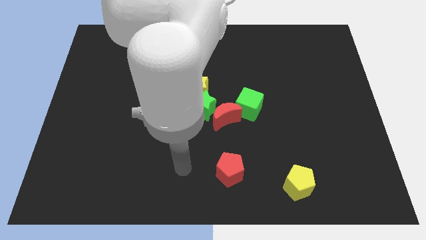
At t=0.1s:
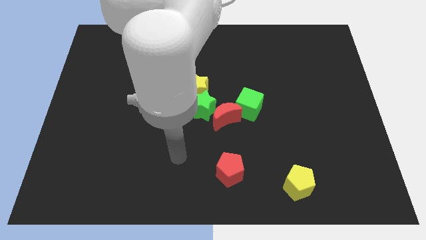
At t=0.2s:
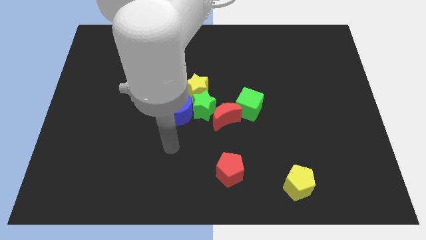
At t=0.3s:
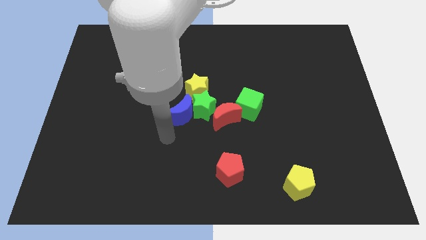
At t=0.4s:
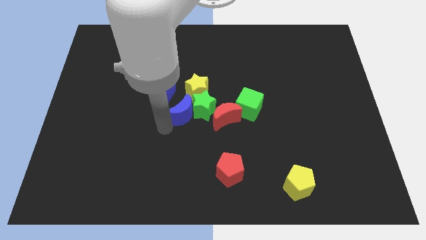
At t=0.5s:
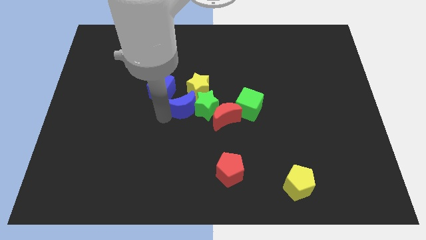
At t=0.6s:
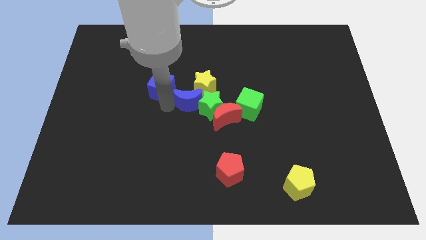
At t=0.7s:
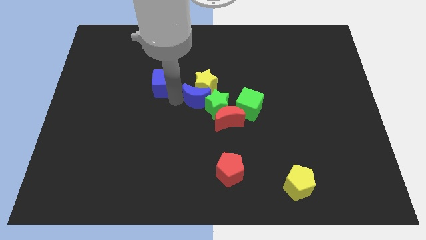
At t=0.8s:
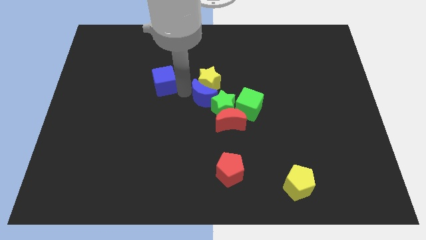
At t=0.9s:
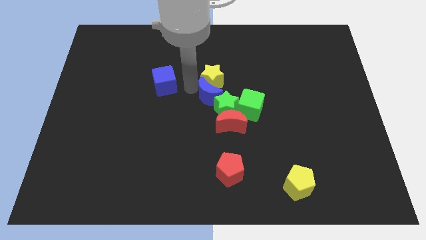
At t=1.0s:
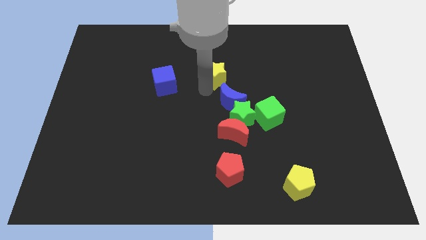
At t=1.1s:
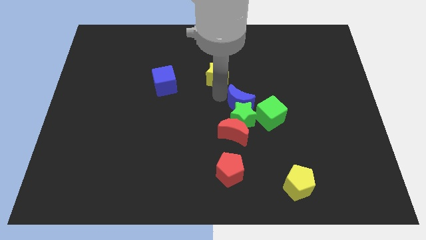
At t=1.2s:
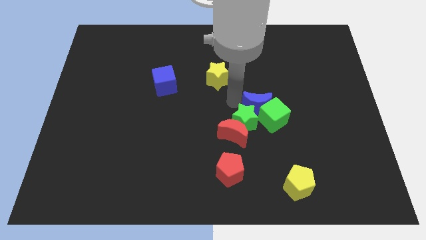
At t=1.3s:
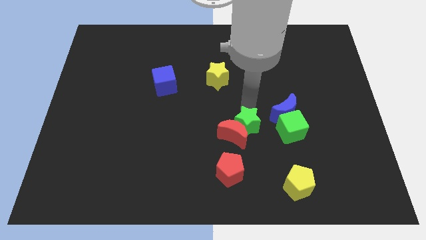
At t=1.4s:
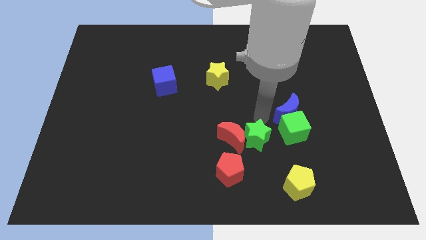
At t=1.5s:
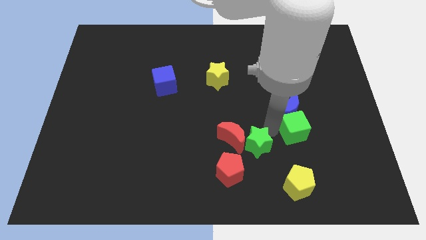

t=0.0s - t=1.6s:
separate the green star from the blue moon, yellow star, and red moon

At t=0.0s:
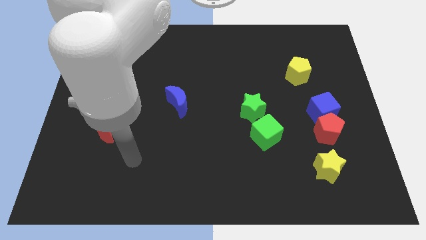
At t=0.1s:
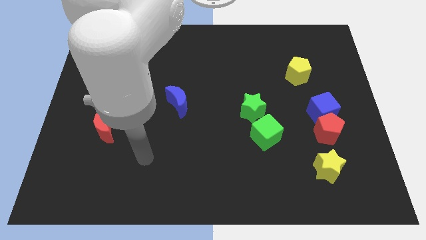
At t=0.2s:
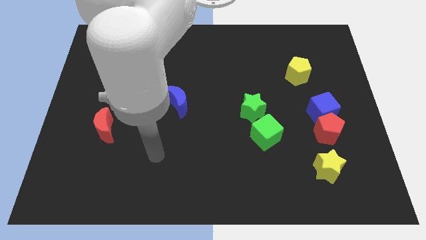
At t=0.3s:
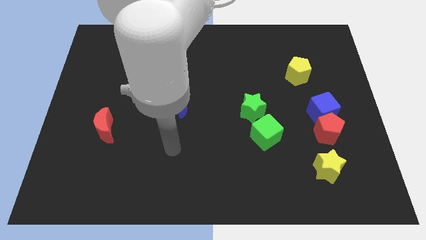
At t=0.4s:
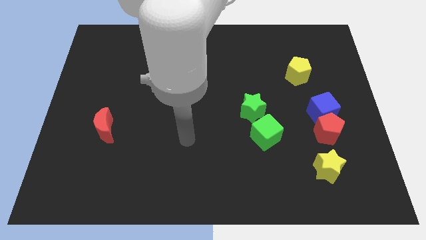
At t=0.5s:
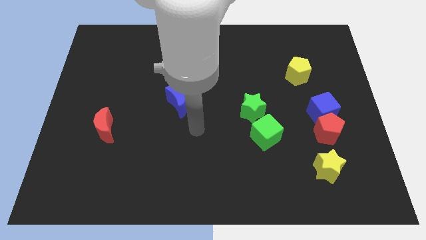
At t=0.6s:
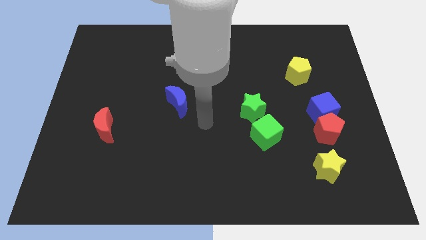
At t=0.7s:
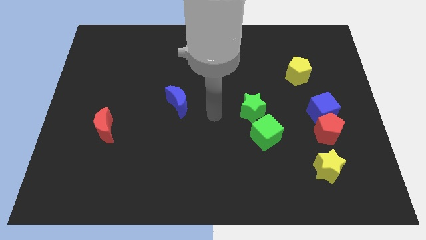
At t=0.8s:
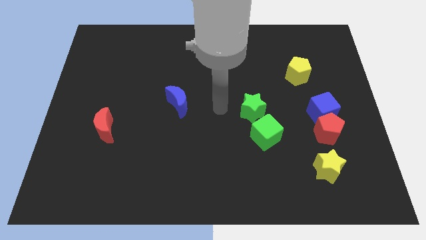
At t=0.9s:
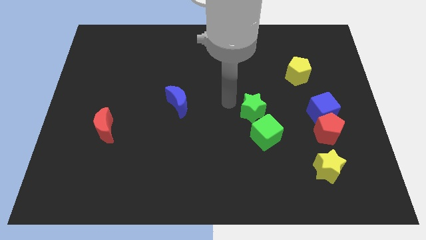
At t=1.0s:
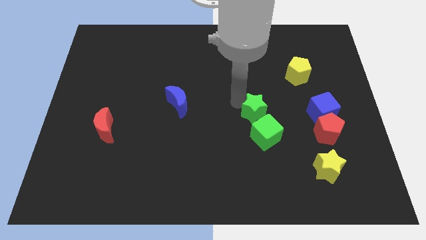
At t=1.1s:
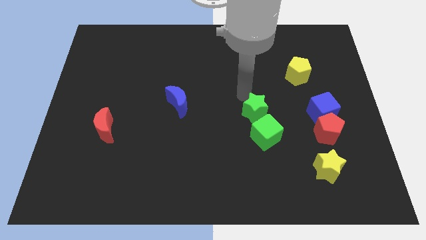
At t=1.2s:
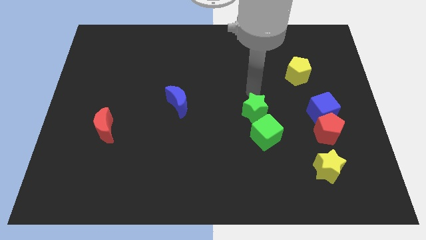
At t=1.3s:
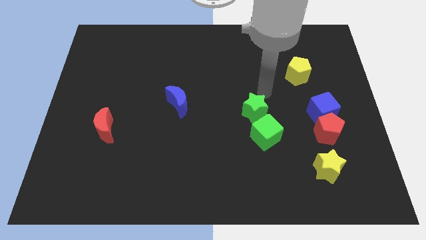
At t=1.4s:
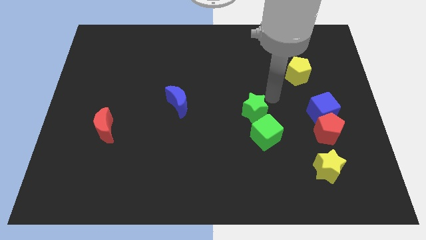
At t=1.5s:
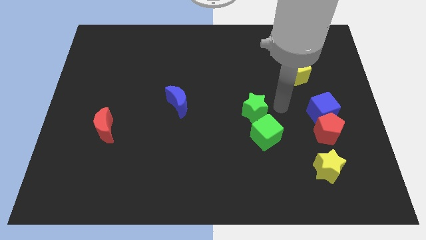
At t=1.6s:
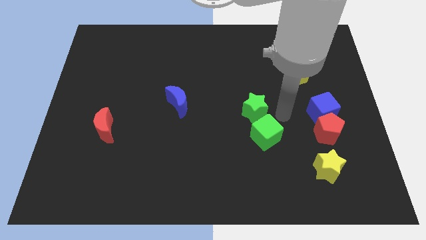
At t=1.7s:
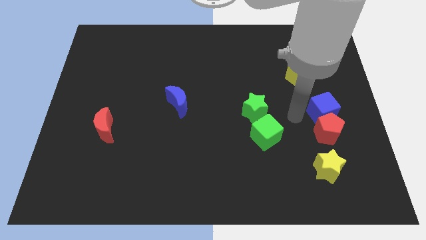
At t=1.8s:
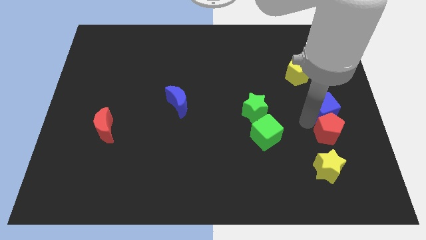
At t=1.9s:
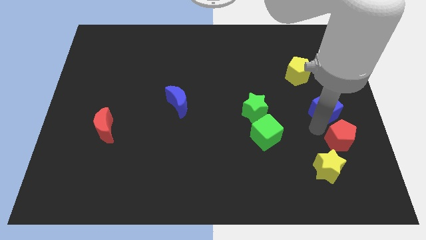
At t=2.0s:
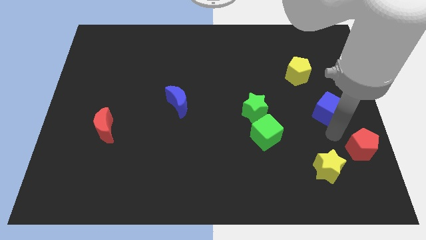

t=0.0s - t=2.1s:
separate the blue cube from the red pentagon

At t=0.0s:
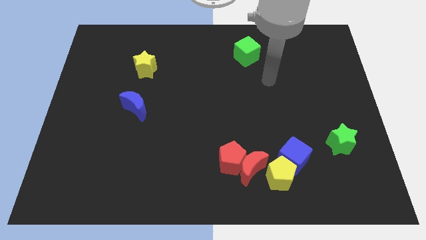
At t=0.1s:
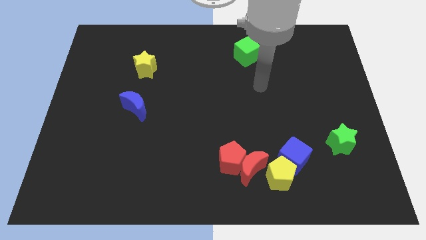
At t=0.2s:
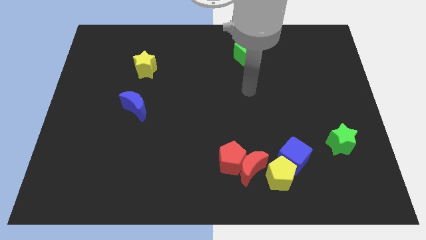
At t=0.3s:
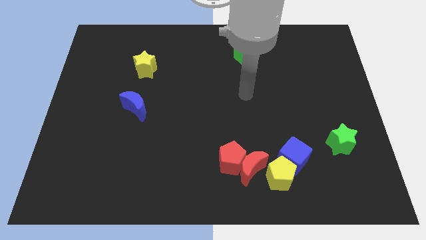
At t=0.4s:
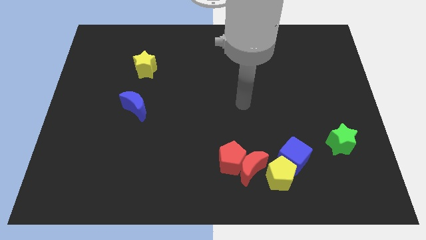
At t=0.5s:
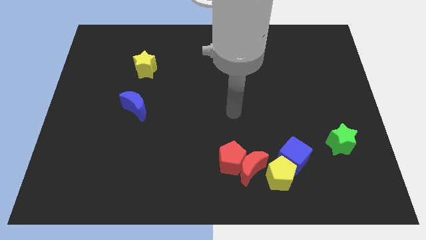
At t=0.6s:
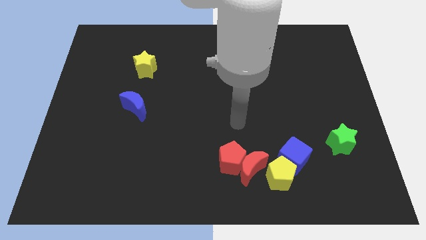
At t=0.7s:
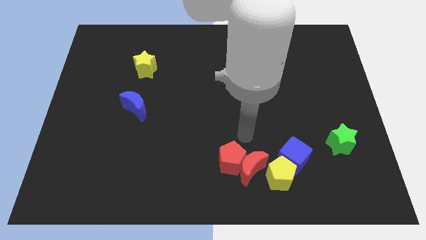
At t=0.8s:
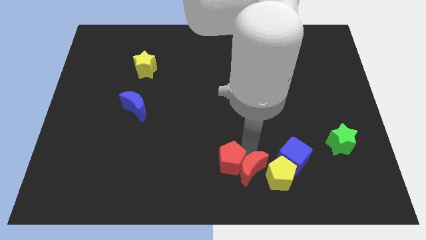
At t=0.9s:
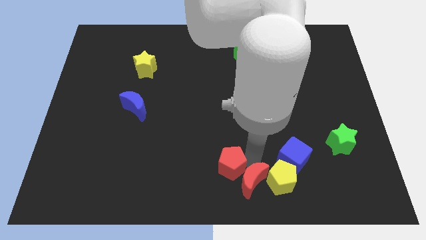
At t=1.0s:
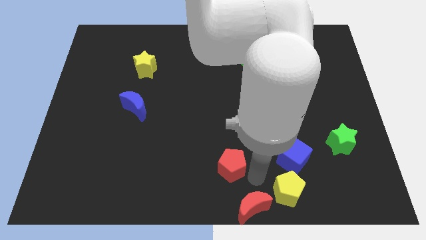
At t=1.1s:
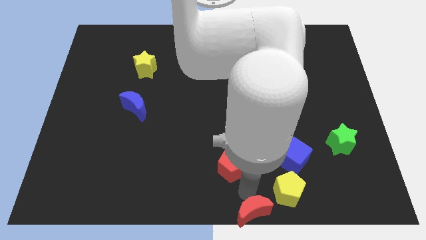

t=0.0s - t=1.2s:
move the red pentagon away from the red moon

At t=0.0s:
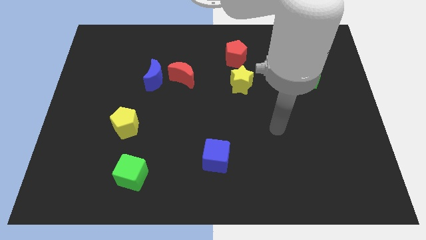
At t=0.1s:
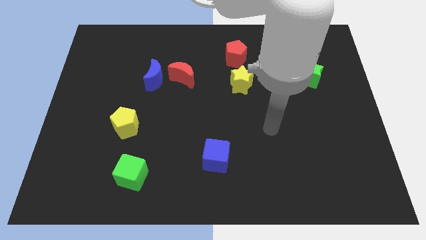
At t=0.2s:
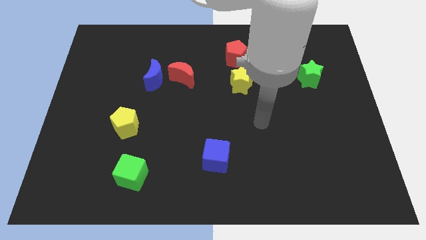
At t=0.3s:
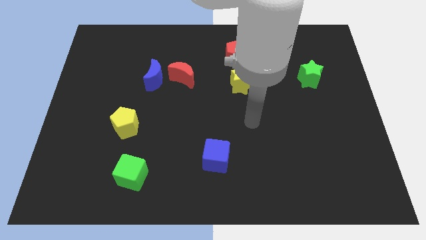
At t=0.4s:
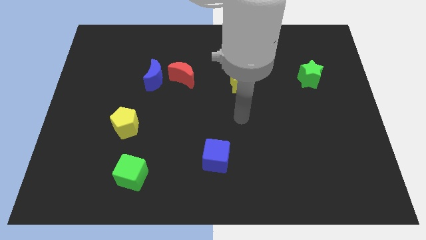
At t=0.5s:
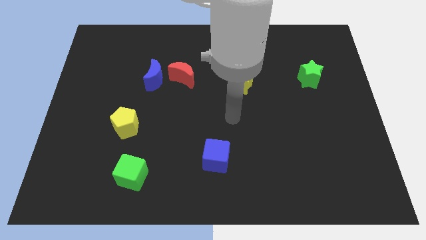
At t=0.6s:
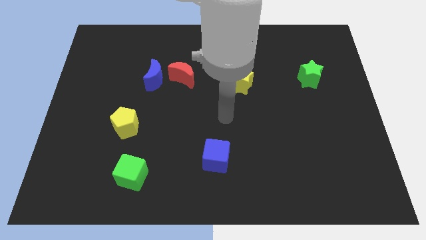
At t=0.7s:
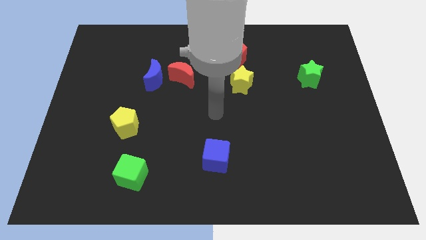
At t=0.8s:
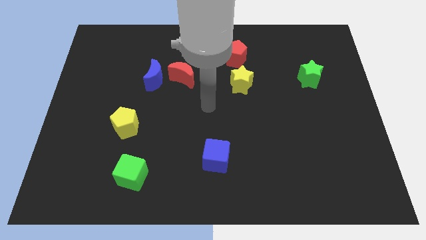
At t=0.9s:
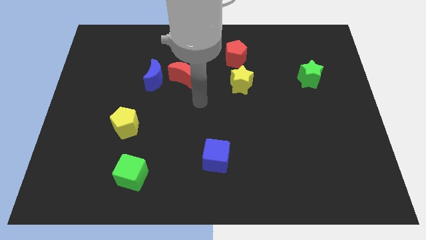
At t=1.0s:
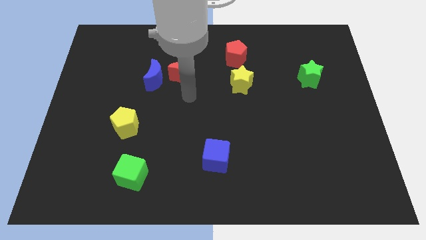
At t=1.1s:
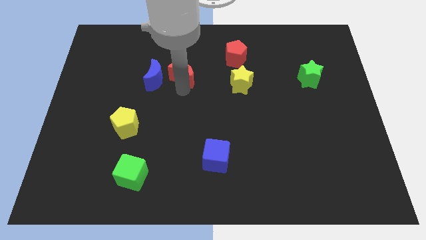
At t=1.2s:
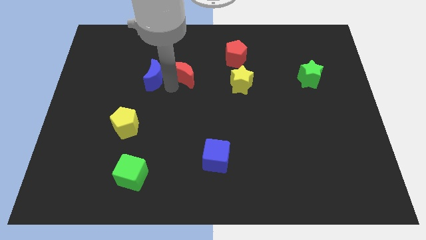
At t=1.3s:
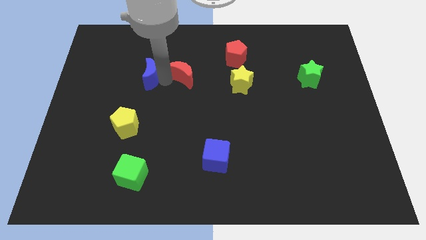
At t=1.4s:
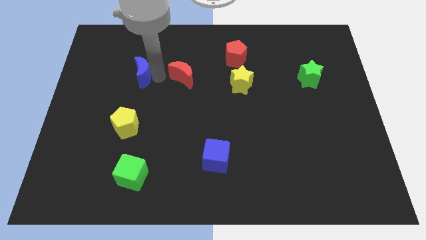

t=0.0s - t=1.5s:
move the red moon away from the blue moon

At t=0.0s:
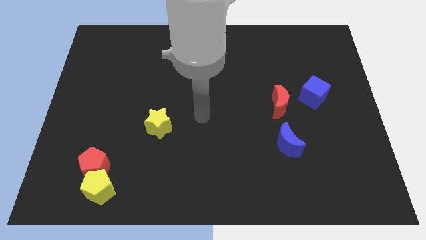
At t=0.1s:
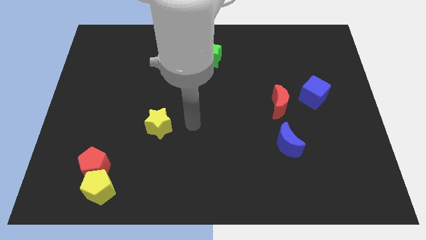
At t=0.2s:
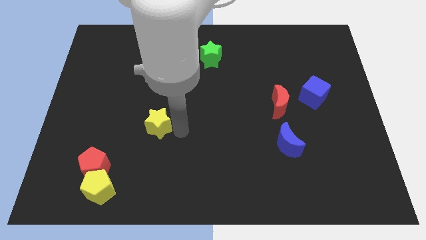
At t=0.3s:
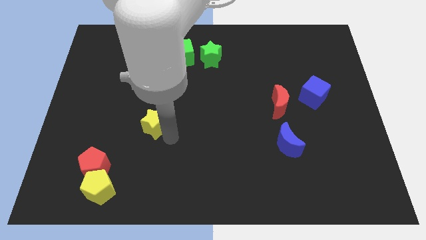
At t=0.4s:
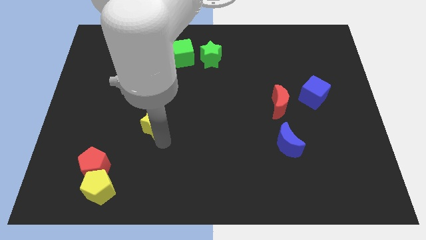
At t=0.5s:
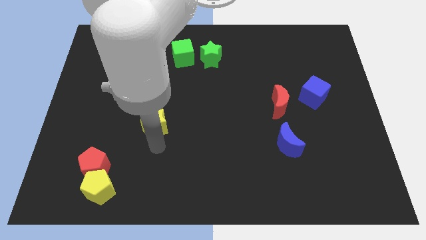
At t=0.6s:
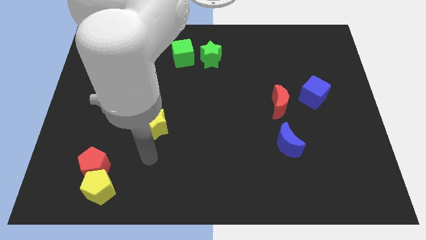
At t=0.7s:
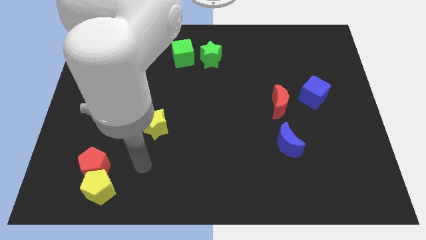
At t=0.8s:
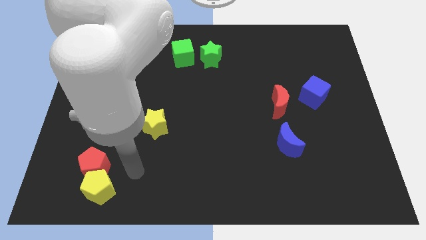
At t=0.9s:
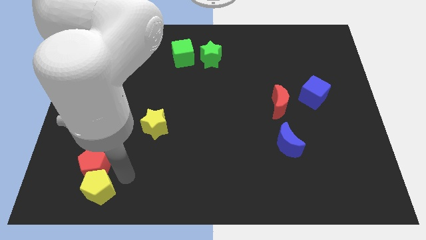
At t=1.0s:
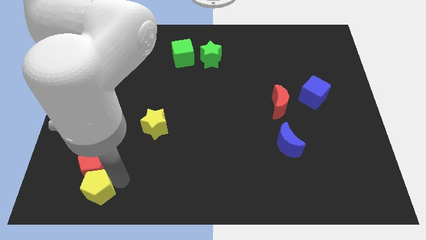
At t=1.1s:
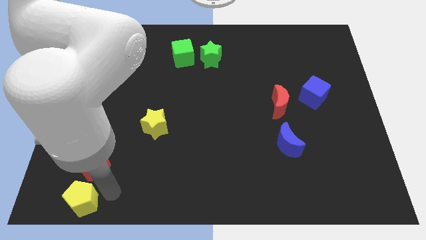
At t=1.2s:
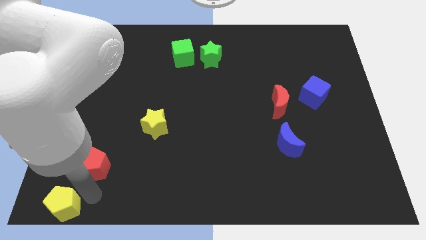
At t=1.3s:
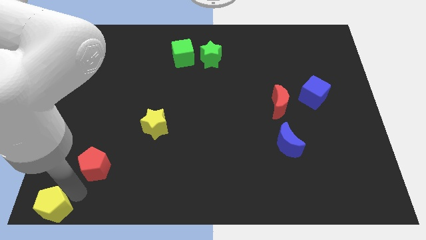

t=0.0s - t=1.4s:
move the red pentagon away from the yellow pentagon

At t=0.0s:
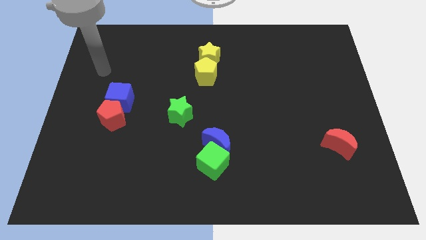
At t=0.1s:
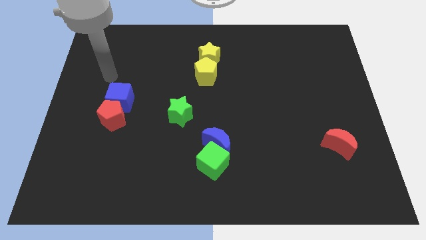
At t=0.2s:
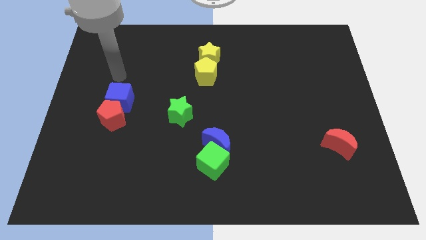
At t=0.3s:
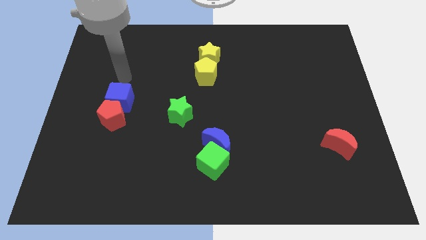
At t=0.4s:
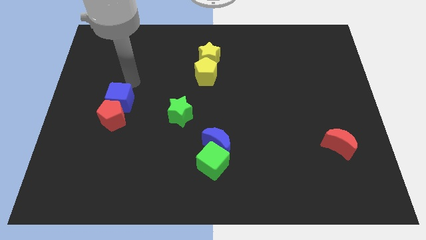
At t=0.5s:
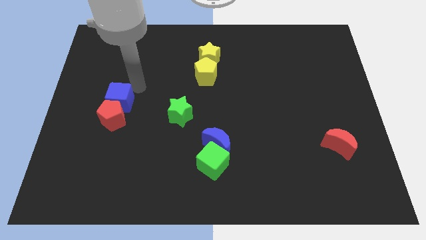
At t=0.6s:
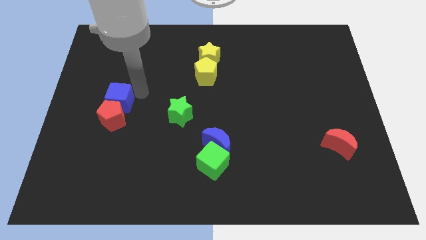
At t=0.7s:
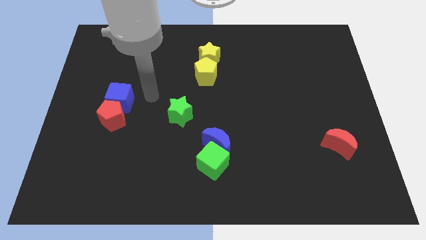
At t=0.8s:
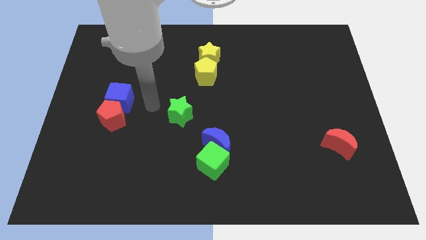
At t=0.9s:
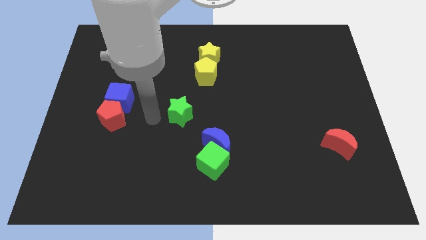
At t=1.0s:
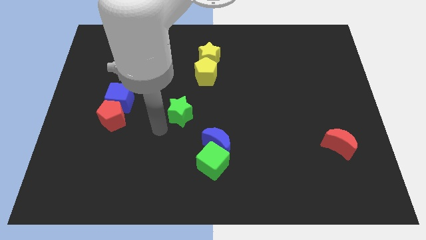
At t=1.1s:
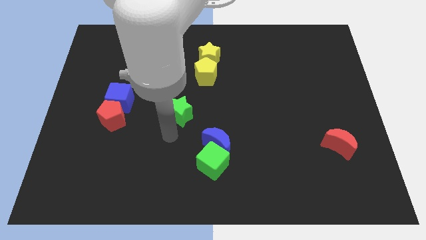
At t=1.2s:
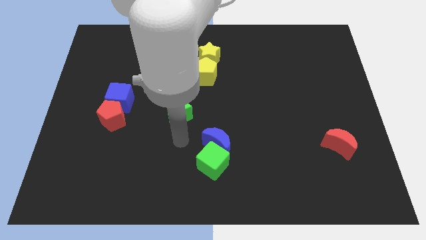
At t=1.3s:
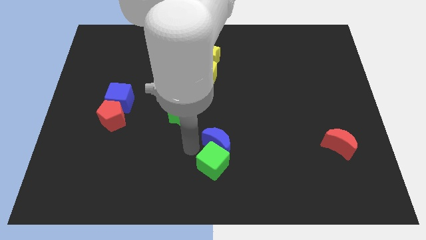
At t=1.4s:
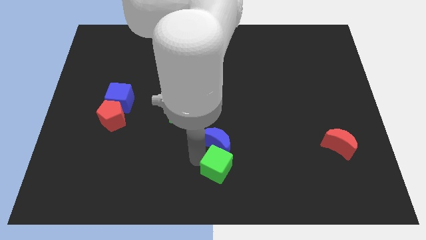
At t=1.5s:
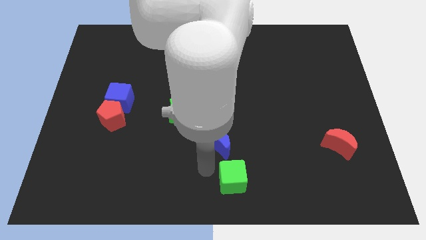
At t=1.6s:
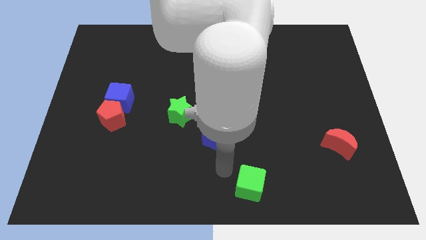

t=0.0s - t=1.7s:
move the blue moon away from the green cube
